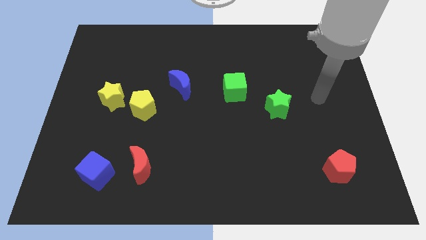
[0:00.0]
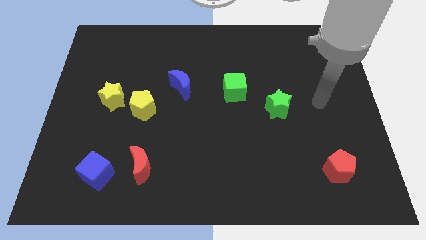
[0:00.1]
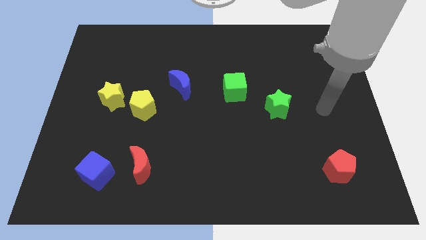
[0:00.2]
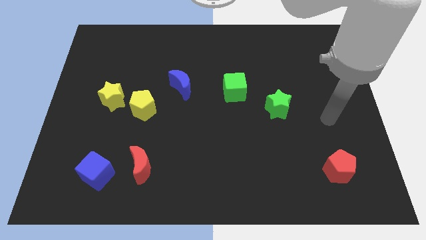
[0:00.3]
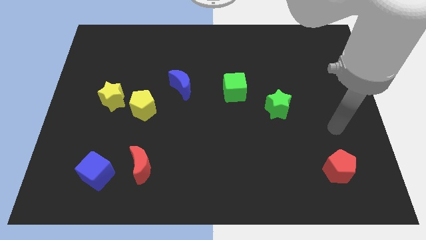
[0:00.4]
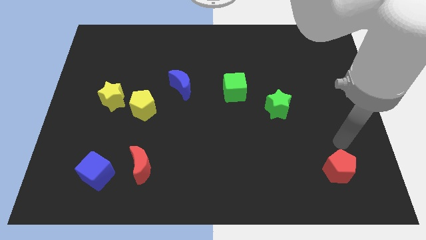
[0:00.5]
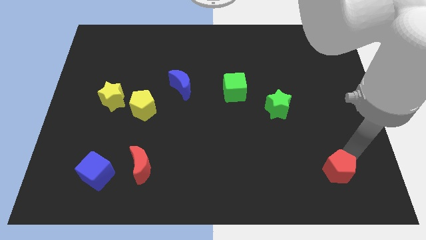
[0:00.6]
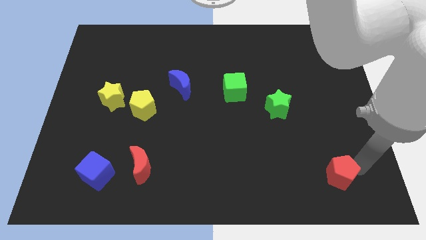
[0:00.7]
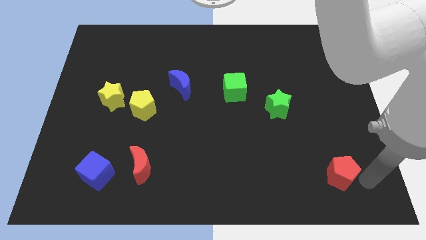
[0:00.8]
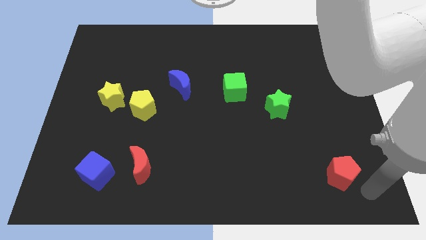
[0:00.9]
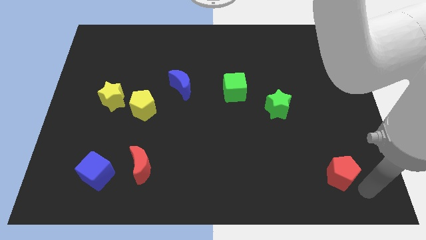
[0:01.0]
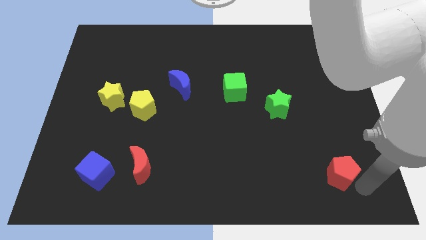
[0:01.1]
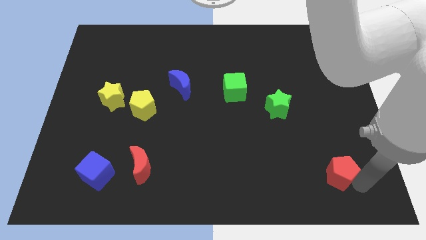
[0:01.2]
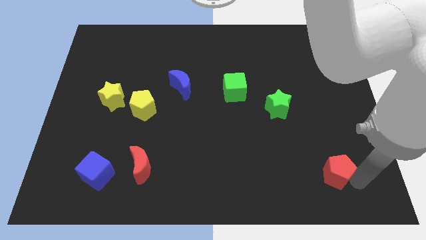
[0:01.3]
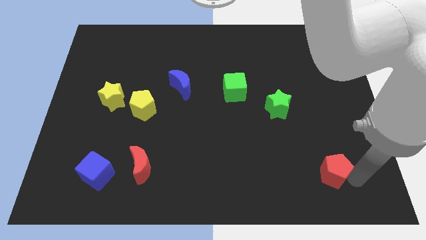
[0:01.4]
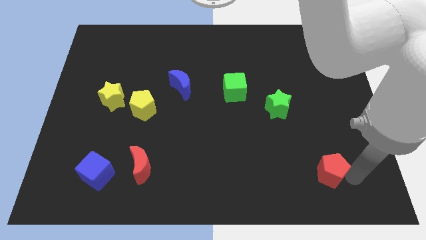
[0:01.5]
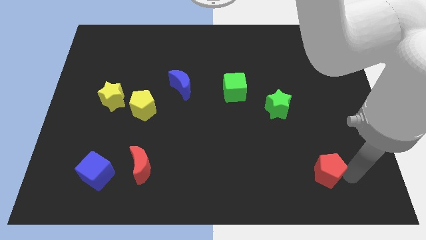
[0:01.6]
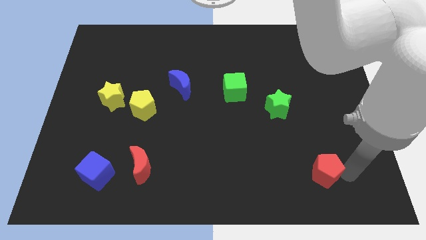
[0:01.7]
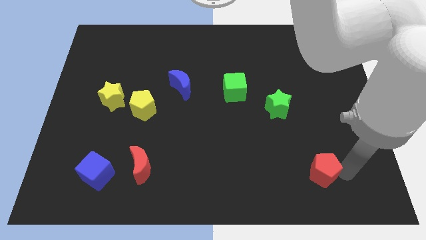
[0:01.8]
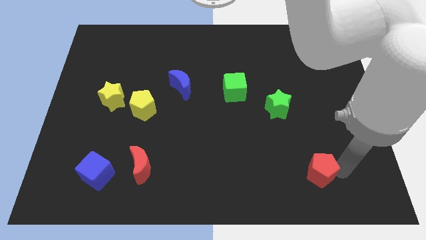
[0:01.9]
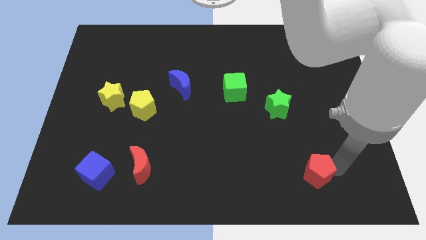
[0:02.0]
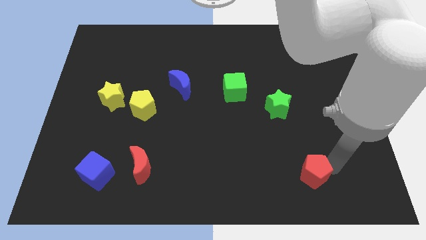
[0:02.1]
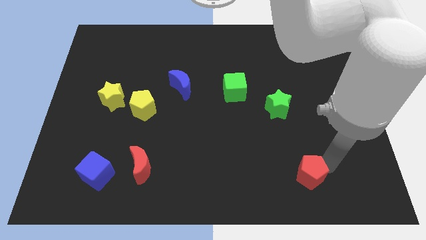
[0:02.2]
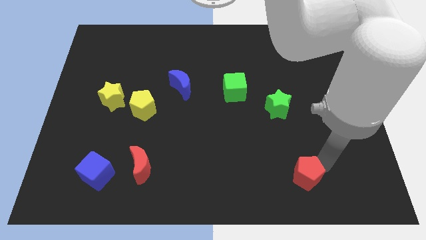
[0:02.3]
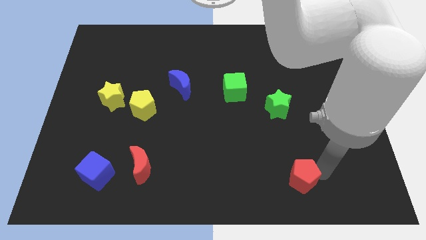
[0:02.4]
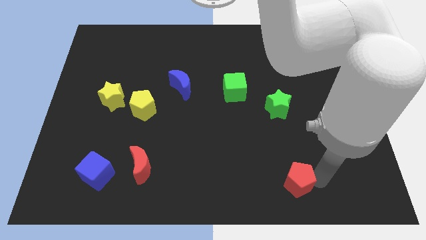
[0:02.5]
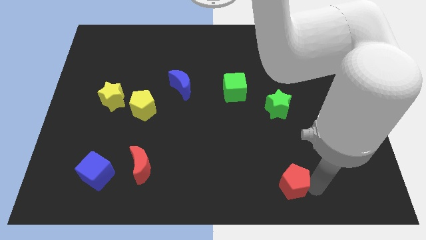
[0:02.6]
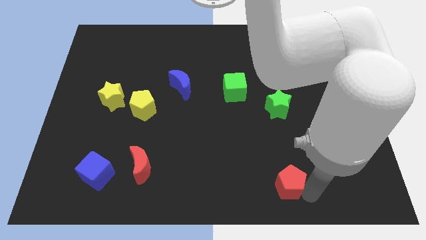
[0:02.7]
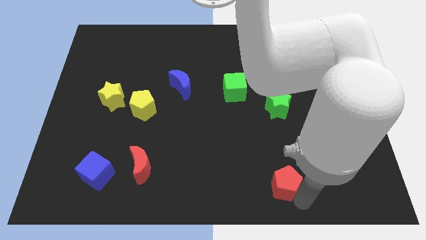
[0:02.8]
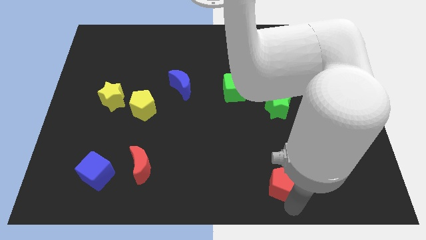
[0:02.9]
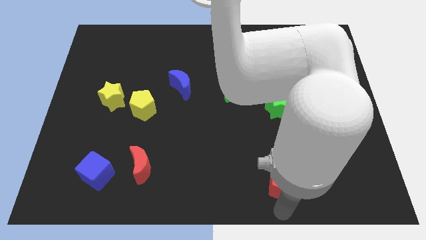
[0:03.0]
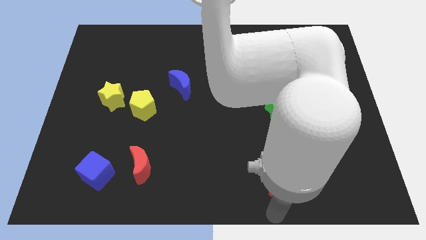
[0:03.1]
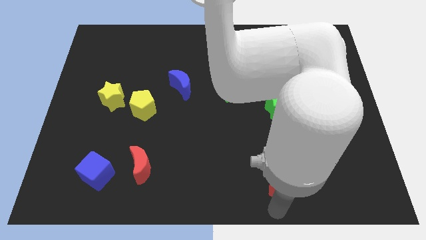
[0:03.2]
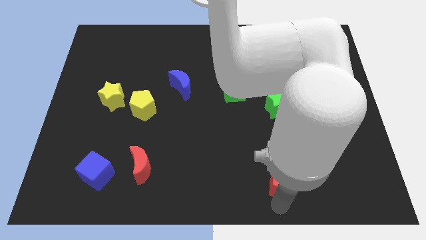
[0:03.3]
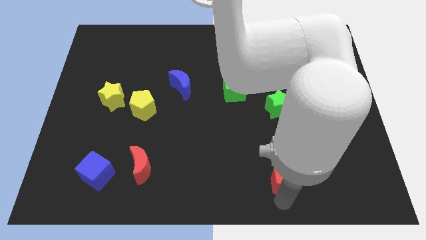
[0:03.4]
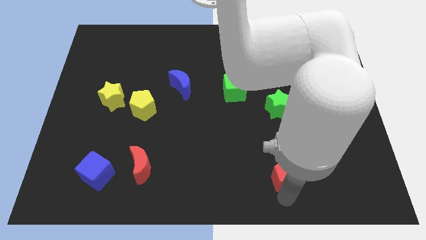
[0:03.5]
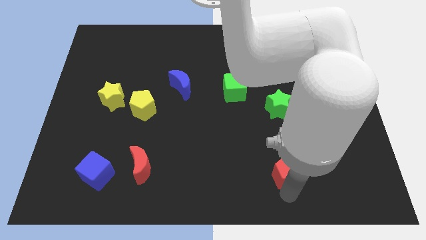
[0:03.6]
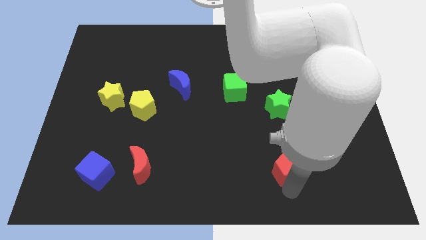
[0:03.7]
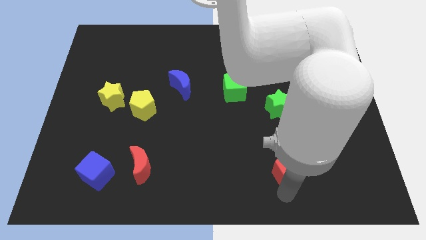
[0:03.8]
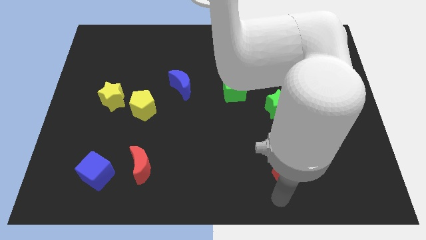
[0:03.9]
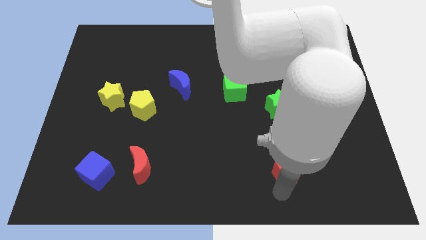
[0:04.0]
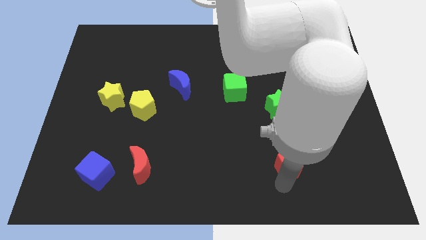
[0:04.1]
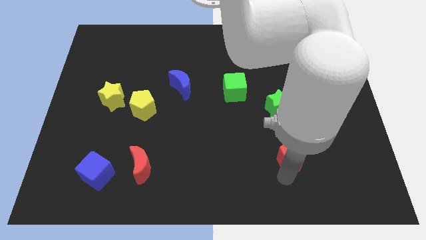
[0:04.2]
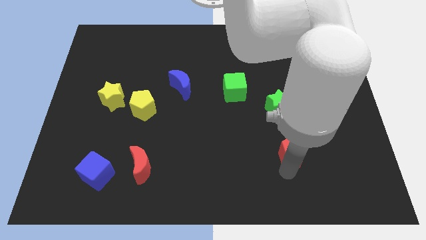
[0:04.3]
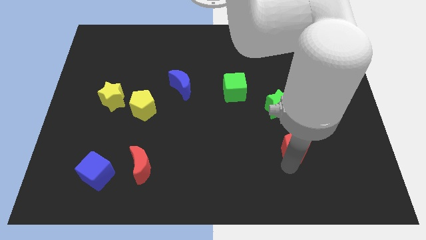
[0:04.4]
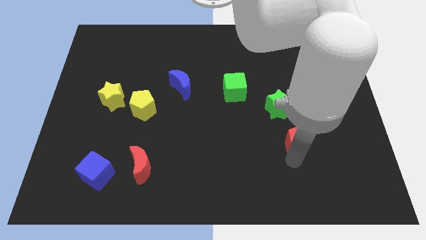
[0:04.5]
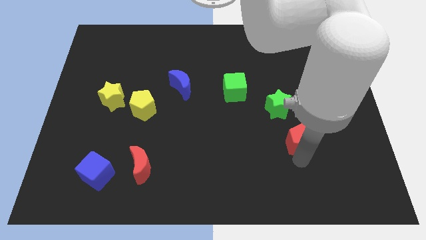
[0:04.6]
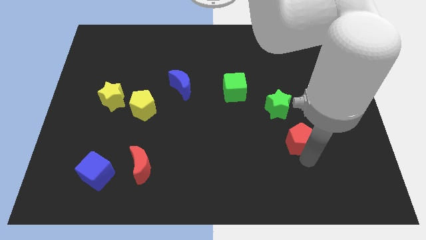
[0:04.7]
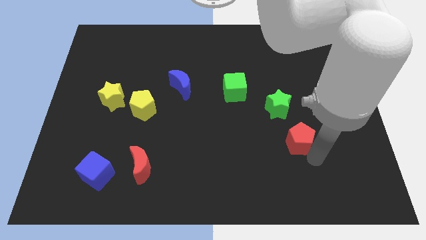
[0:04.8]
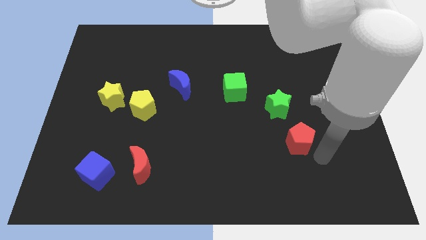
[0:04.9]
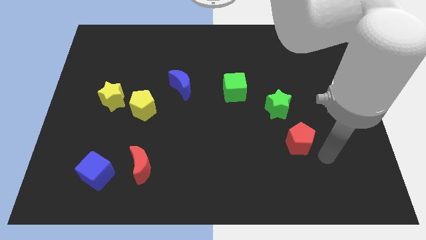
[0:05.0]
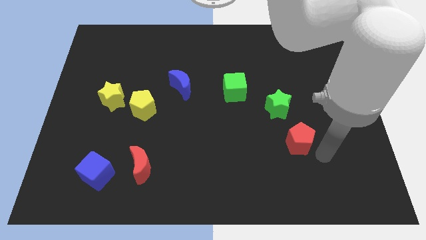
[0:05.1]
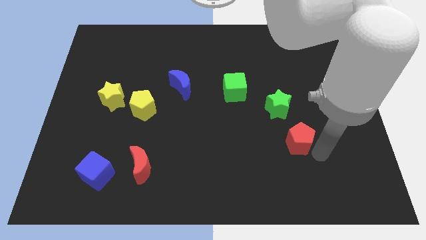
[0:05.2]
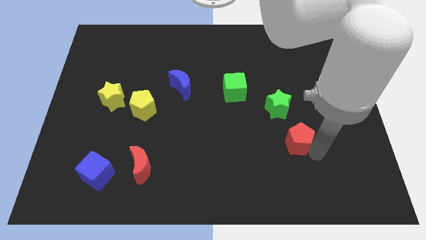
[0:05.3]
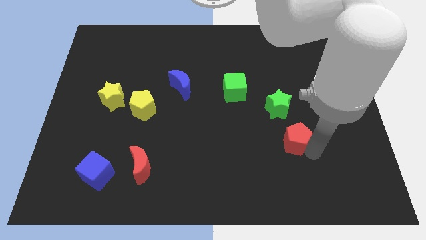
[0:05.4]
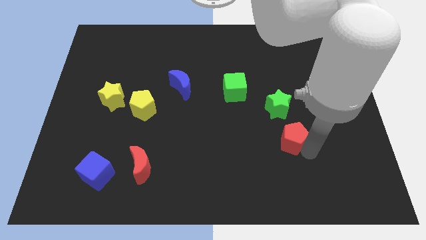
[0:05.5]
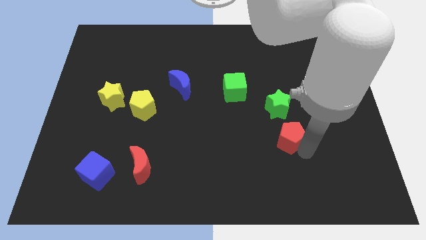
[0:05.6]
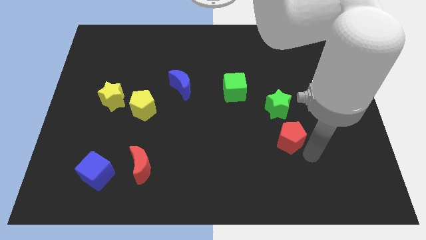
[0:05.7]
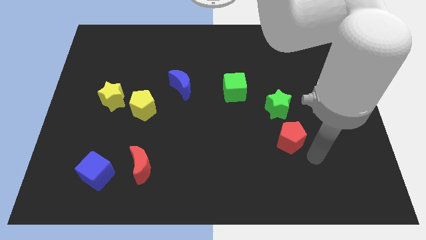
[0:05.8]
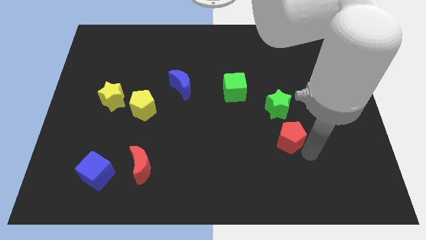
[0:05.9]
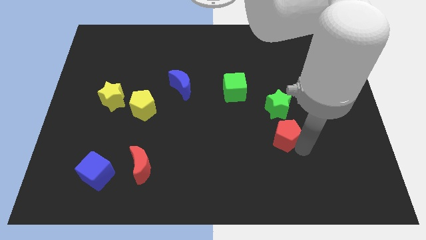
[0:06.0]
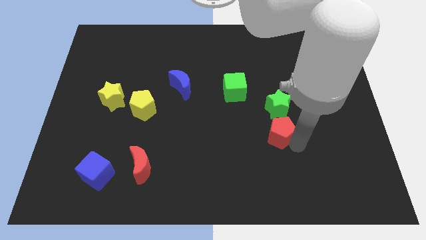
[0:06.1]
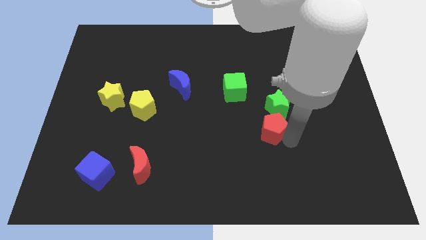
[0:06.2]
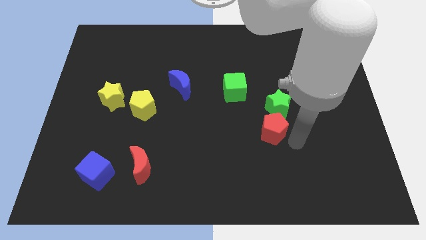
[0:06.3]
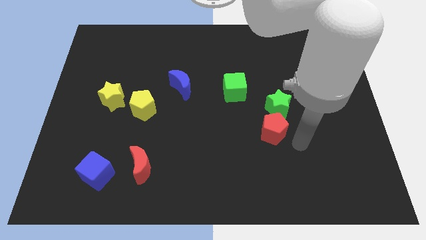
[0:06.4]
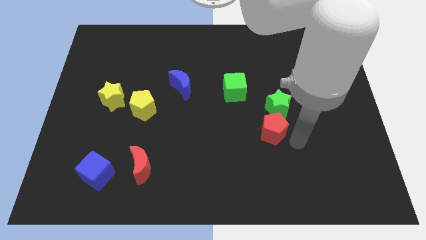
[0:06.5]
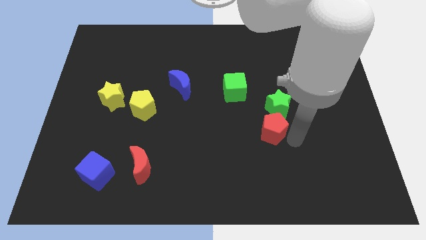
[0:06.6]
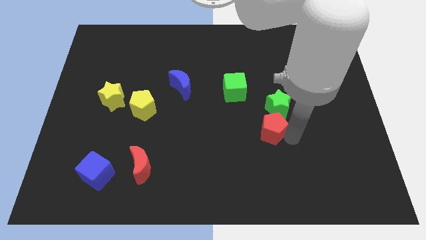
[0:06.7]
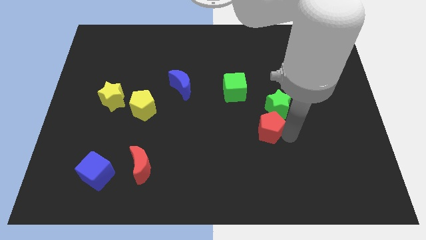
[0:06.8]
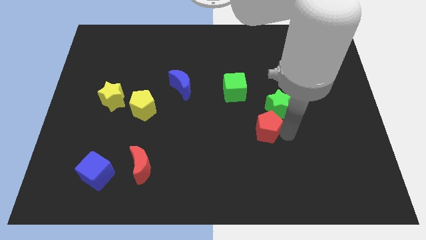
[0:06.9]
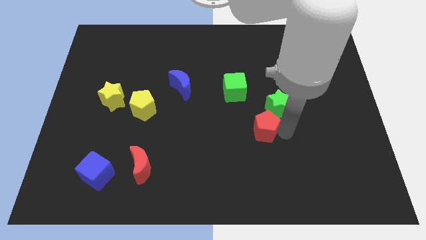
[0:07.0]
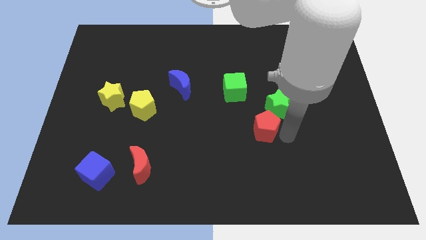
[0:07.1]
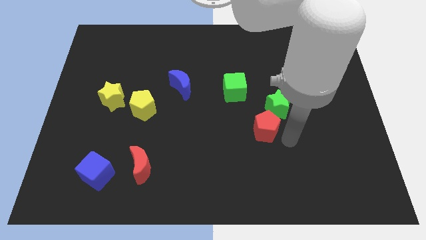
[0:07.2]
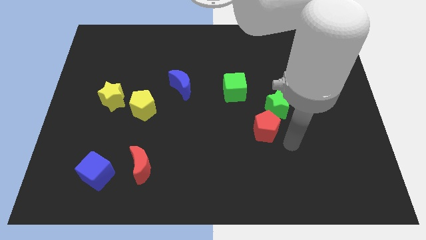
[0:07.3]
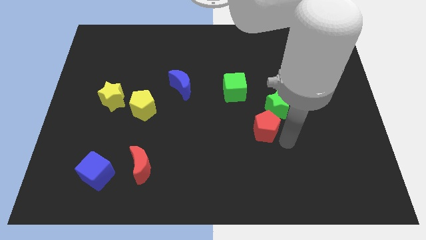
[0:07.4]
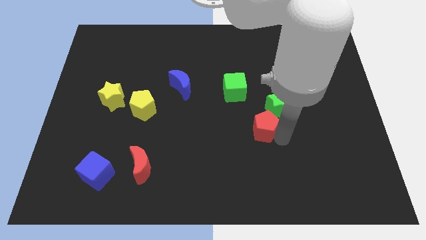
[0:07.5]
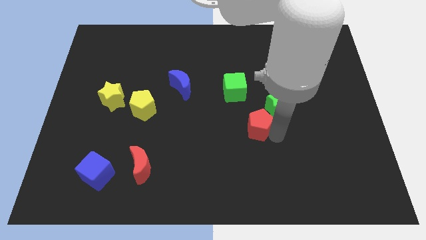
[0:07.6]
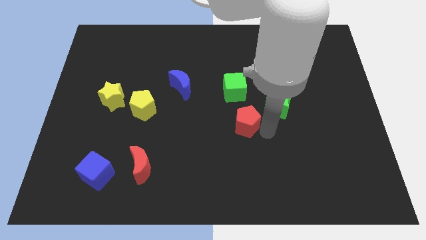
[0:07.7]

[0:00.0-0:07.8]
move the red pentagon to the center
